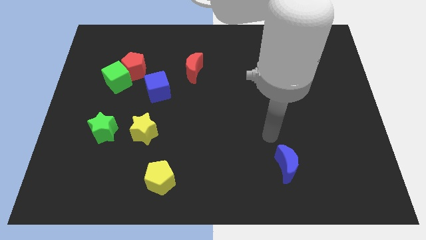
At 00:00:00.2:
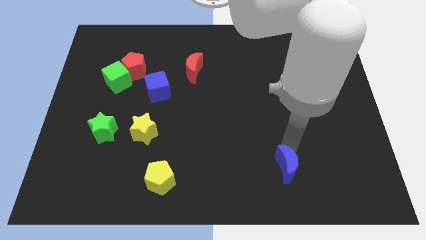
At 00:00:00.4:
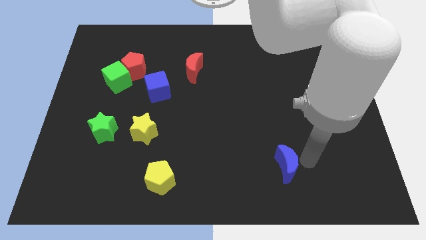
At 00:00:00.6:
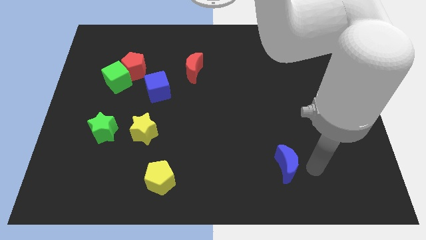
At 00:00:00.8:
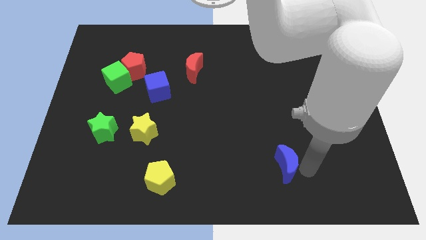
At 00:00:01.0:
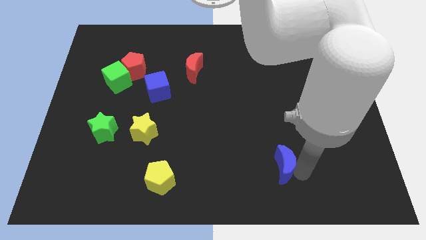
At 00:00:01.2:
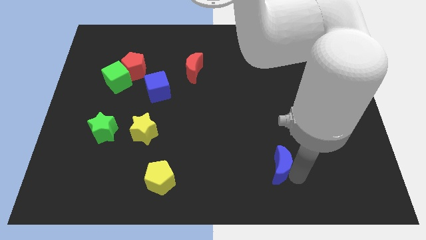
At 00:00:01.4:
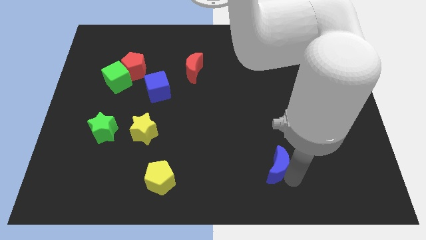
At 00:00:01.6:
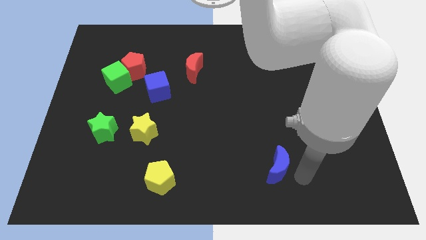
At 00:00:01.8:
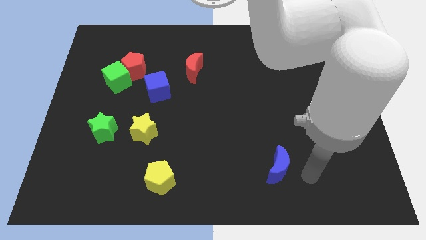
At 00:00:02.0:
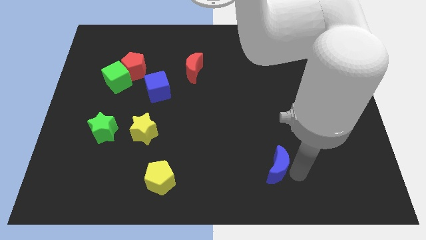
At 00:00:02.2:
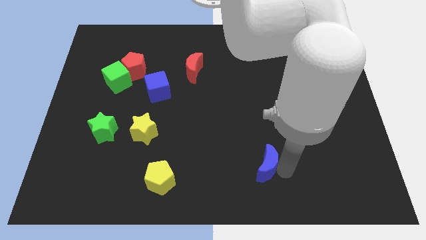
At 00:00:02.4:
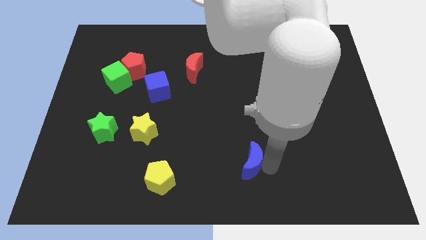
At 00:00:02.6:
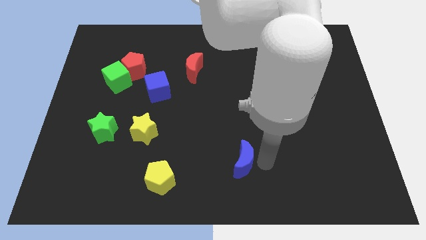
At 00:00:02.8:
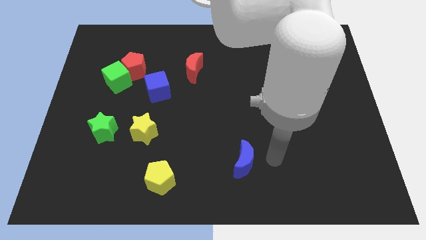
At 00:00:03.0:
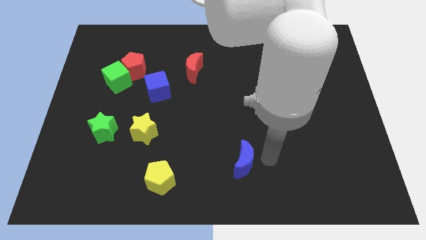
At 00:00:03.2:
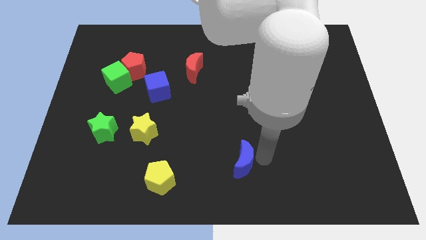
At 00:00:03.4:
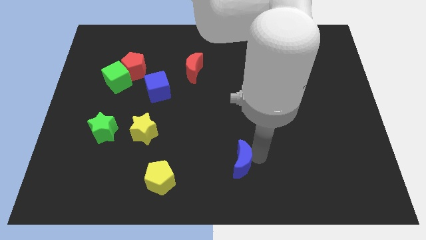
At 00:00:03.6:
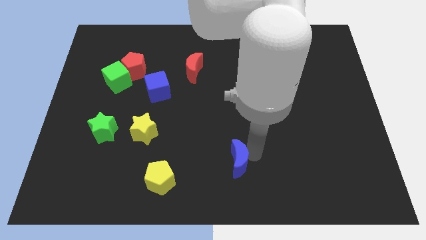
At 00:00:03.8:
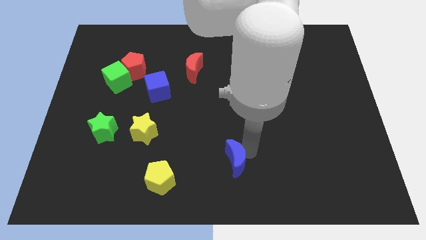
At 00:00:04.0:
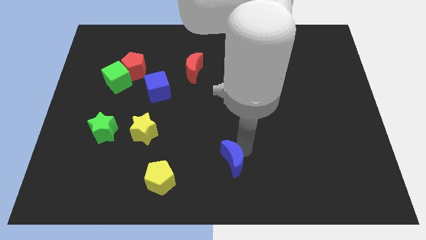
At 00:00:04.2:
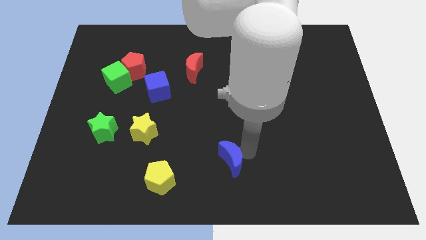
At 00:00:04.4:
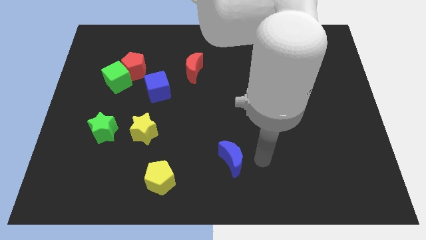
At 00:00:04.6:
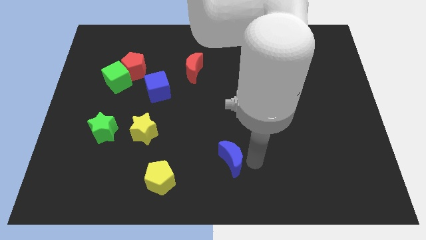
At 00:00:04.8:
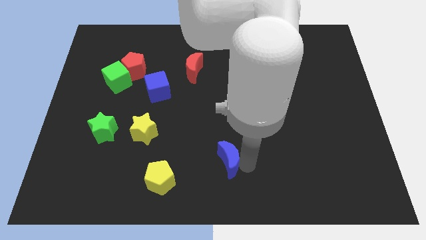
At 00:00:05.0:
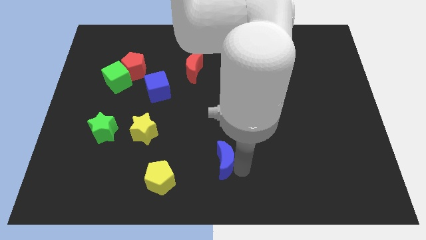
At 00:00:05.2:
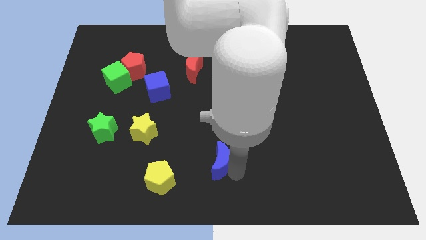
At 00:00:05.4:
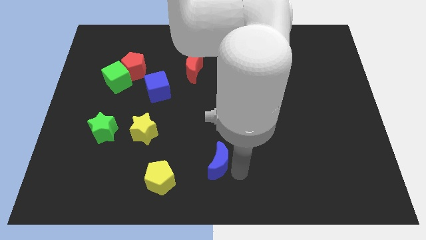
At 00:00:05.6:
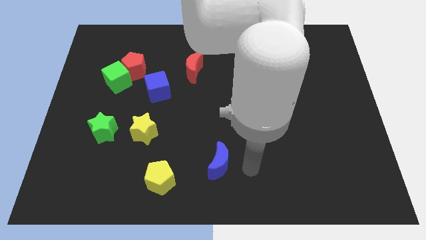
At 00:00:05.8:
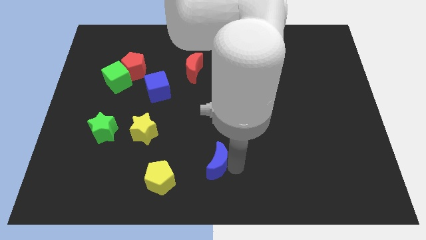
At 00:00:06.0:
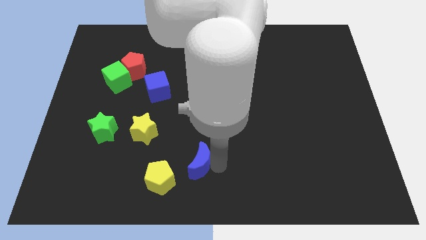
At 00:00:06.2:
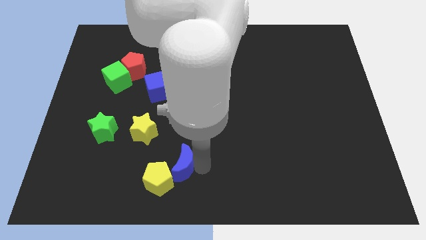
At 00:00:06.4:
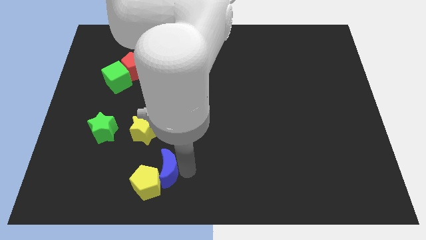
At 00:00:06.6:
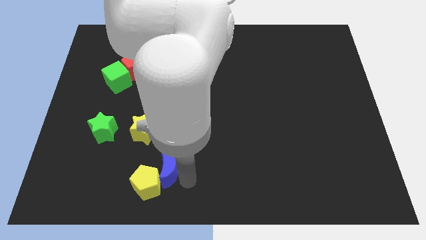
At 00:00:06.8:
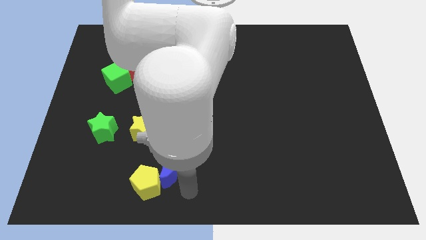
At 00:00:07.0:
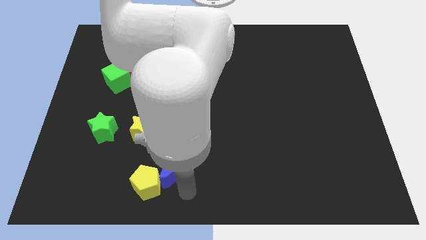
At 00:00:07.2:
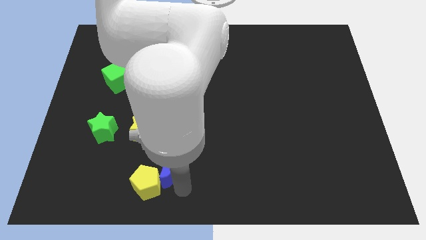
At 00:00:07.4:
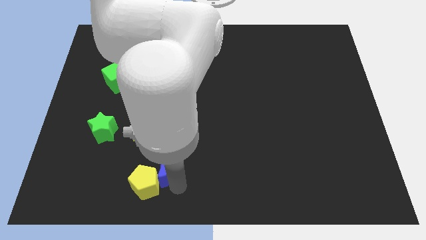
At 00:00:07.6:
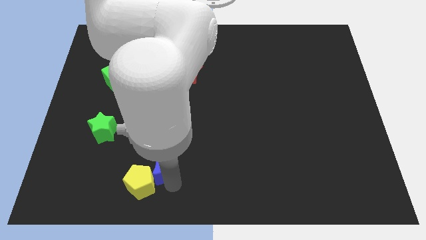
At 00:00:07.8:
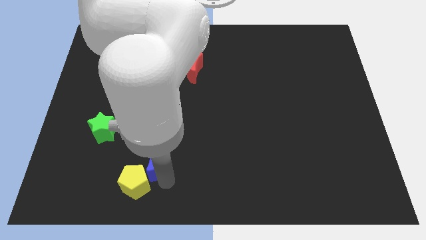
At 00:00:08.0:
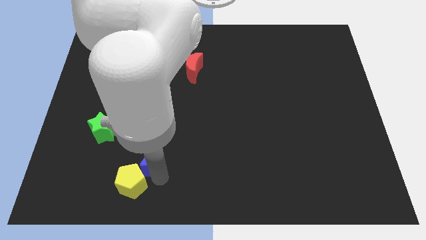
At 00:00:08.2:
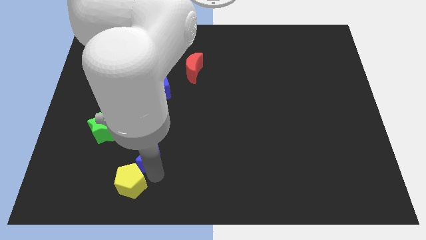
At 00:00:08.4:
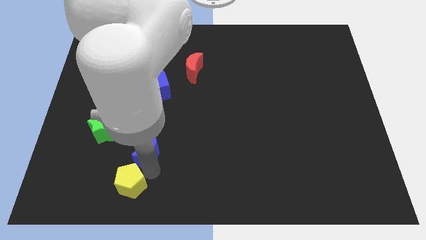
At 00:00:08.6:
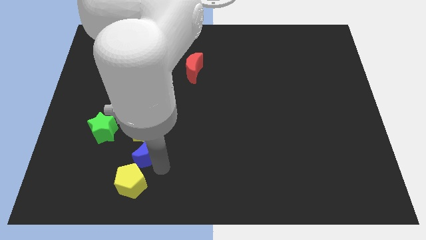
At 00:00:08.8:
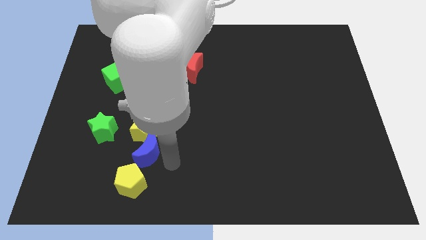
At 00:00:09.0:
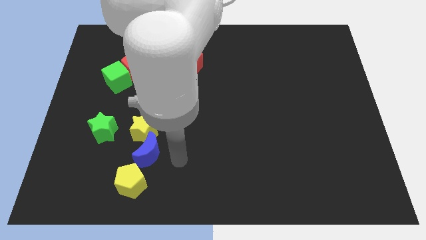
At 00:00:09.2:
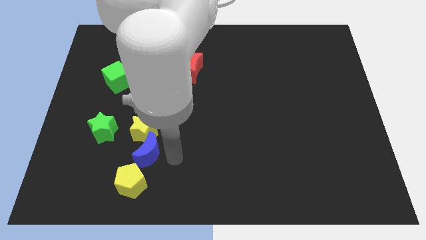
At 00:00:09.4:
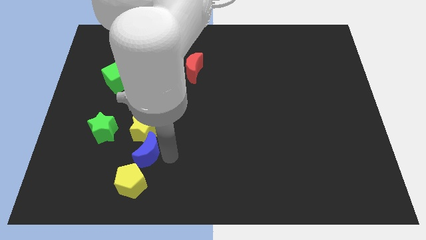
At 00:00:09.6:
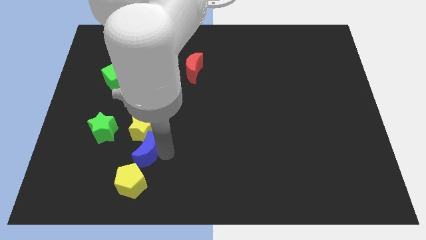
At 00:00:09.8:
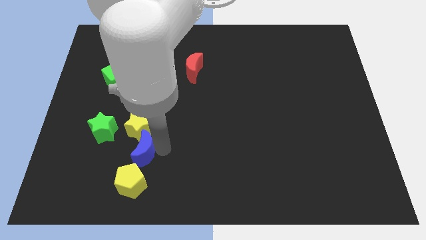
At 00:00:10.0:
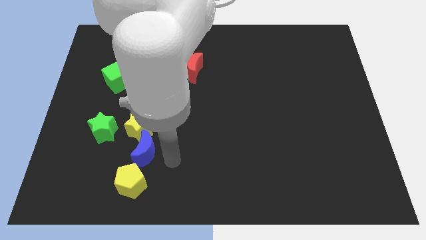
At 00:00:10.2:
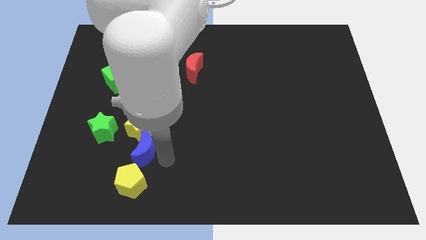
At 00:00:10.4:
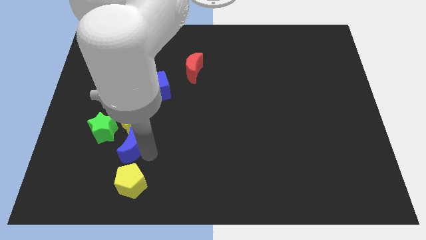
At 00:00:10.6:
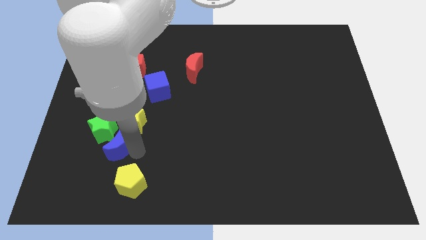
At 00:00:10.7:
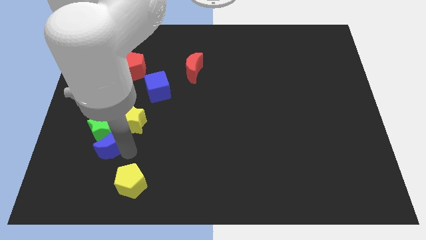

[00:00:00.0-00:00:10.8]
slide the blue moon to the green star

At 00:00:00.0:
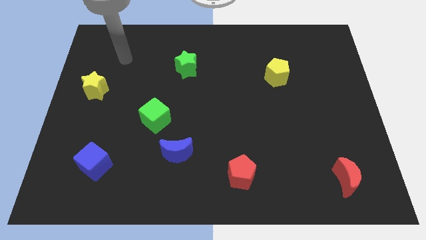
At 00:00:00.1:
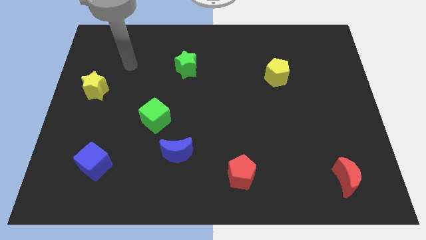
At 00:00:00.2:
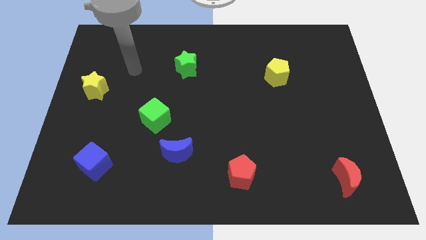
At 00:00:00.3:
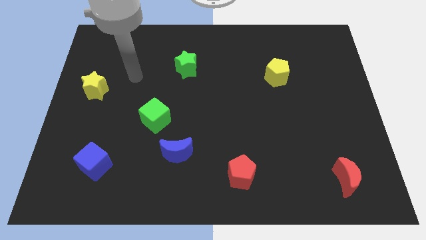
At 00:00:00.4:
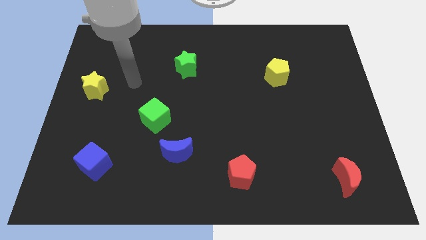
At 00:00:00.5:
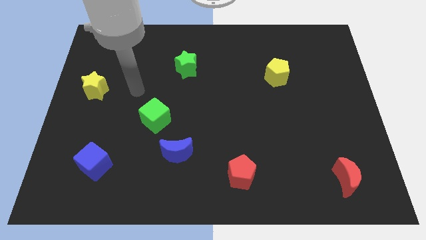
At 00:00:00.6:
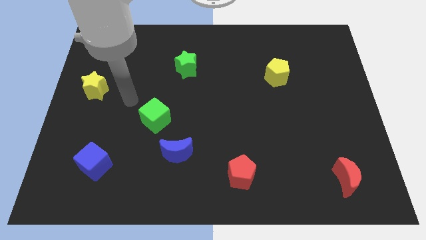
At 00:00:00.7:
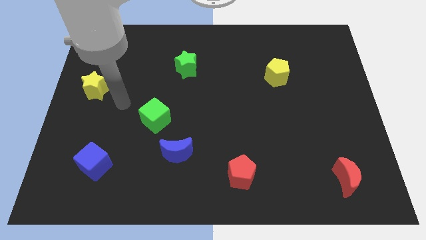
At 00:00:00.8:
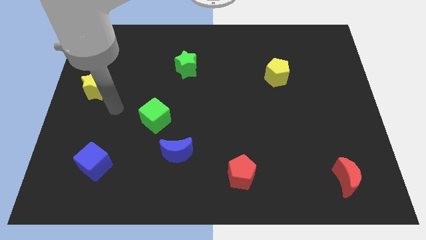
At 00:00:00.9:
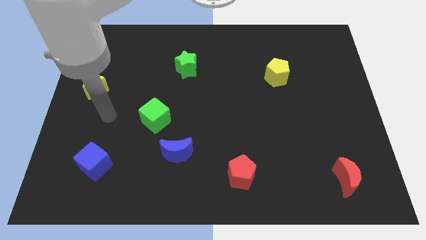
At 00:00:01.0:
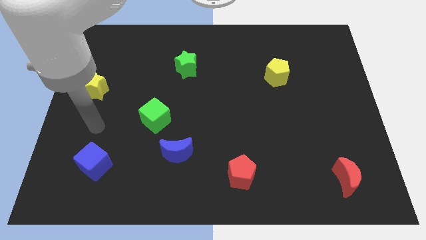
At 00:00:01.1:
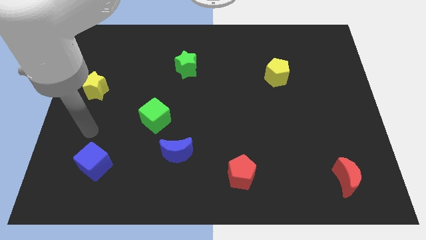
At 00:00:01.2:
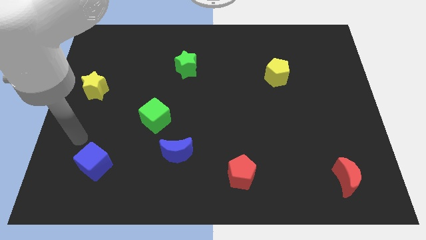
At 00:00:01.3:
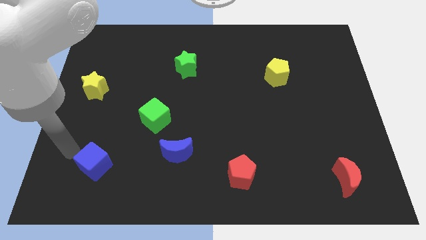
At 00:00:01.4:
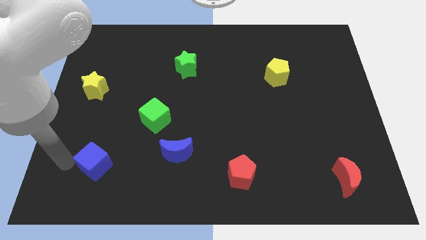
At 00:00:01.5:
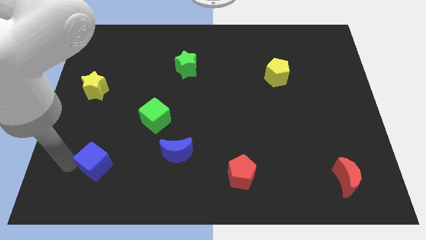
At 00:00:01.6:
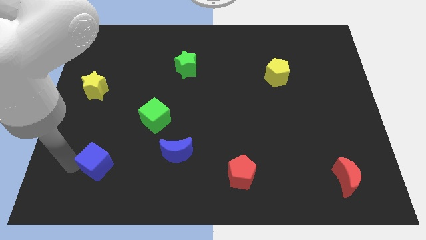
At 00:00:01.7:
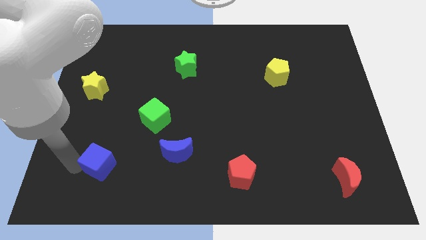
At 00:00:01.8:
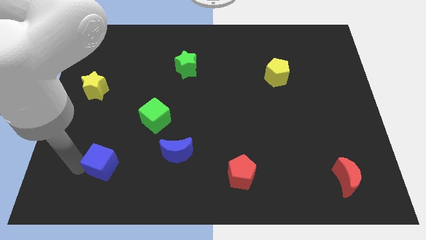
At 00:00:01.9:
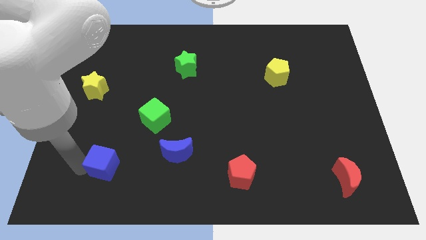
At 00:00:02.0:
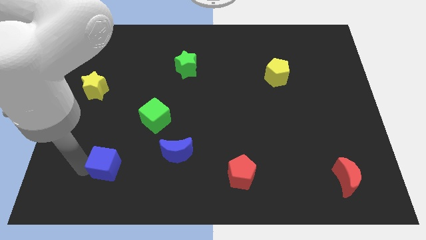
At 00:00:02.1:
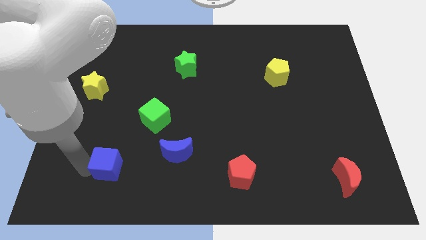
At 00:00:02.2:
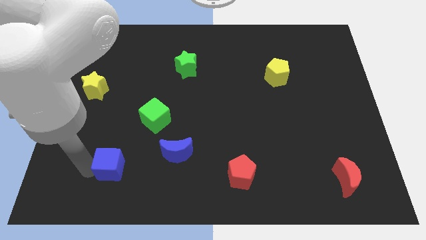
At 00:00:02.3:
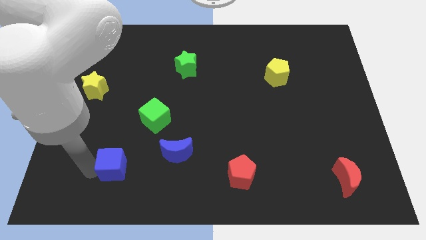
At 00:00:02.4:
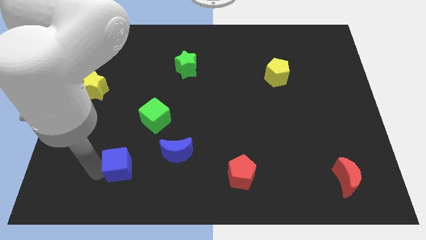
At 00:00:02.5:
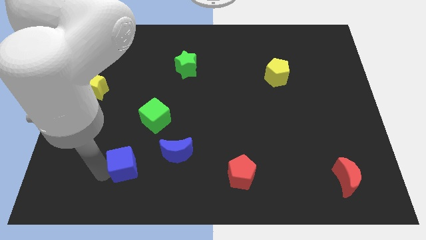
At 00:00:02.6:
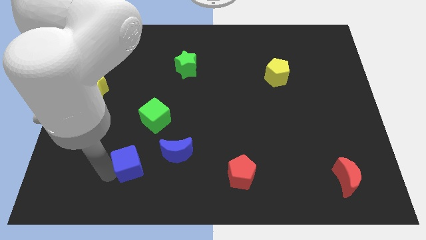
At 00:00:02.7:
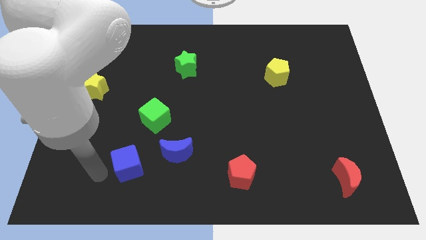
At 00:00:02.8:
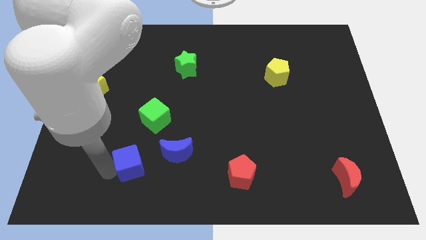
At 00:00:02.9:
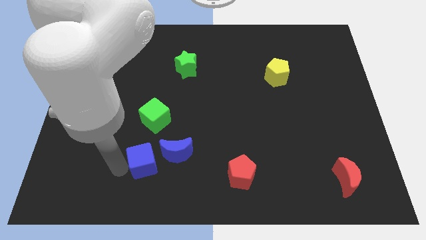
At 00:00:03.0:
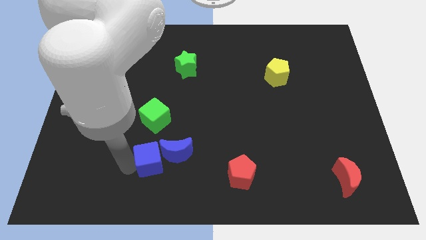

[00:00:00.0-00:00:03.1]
push the blue cube to the blue moon
